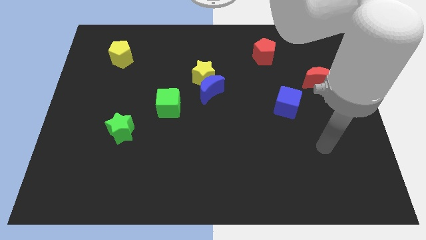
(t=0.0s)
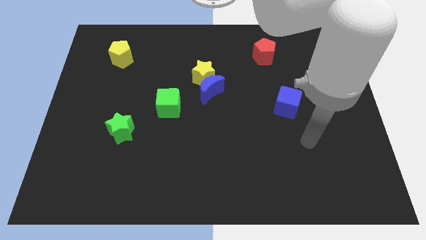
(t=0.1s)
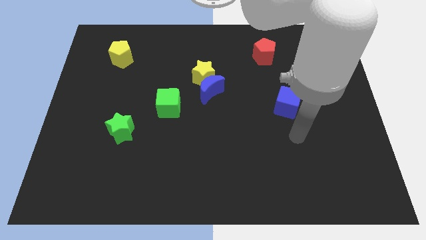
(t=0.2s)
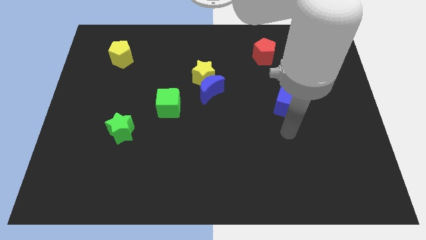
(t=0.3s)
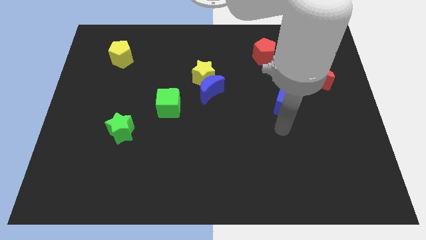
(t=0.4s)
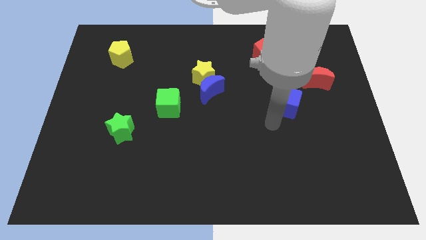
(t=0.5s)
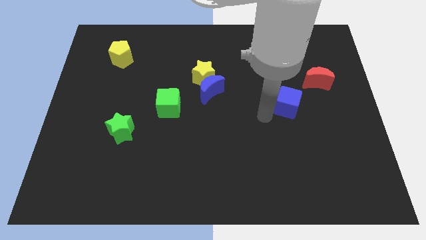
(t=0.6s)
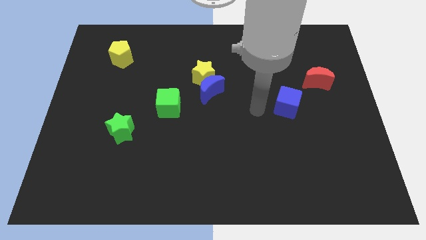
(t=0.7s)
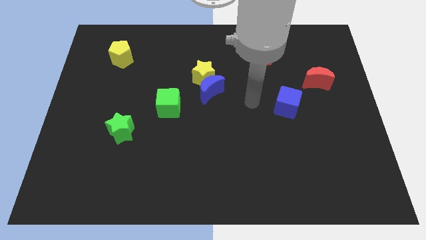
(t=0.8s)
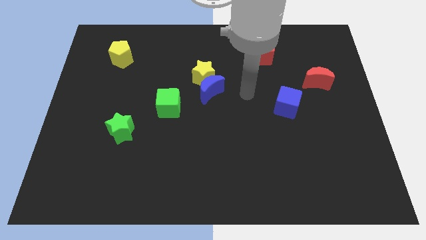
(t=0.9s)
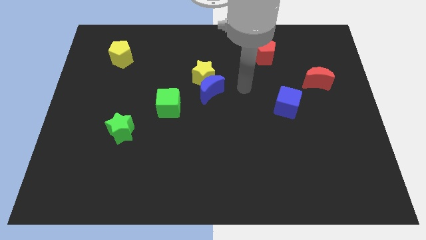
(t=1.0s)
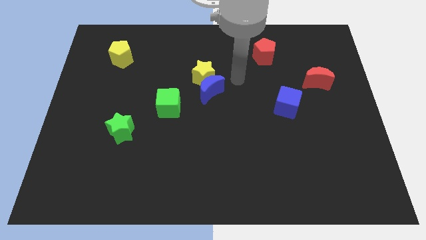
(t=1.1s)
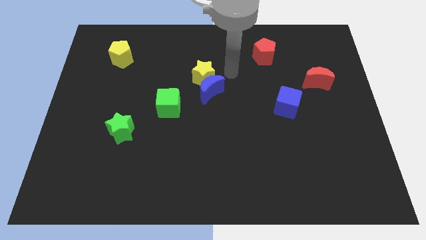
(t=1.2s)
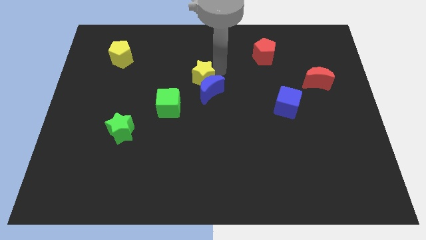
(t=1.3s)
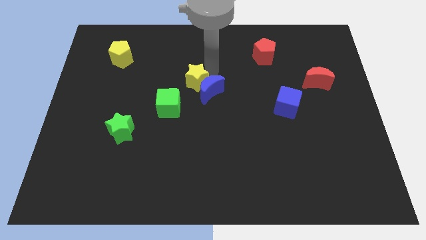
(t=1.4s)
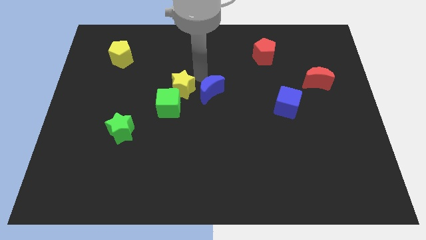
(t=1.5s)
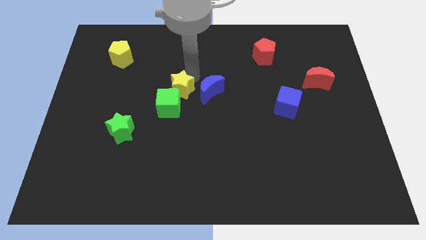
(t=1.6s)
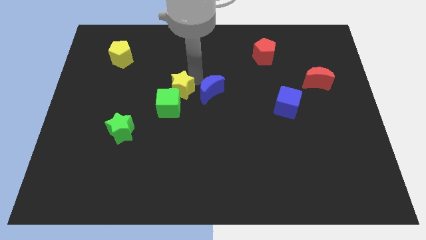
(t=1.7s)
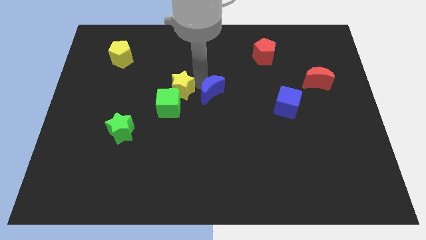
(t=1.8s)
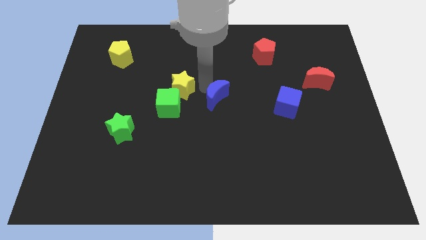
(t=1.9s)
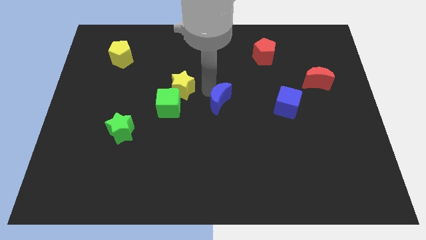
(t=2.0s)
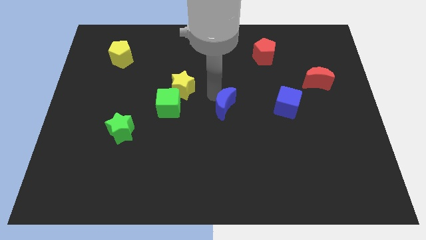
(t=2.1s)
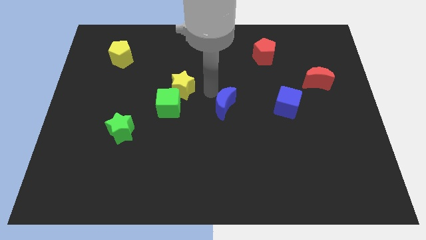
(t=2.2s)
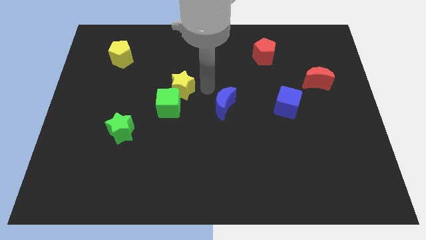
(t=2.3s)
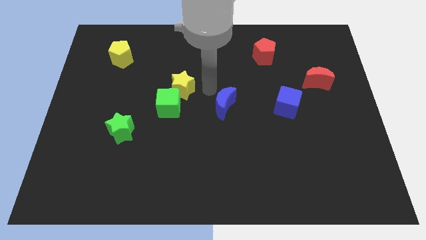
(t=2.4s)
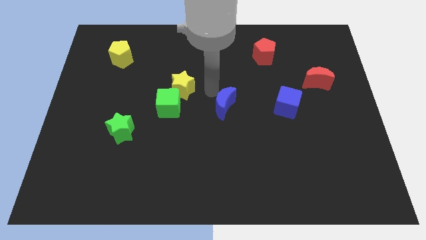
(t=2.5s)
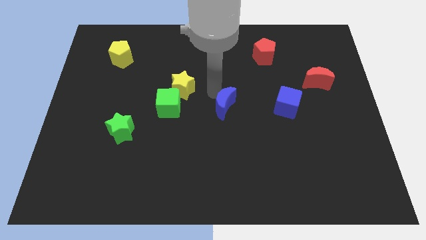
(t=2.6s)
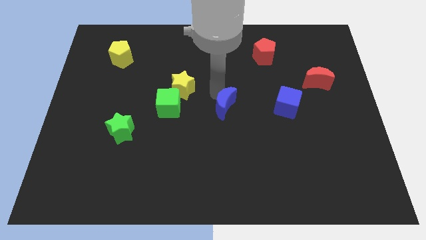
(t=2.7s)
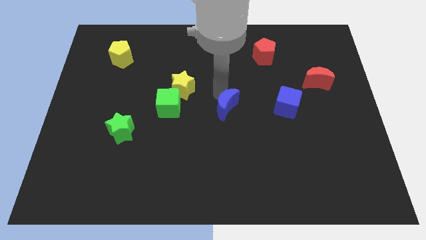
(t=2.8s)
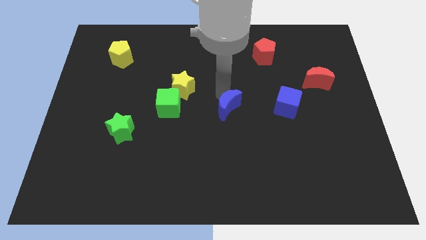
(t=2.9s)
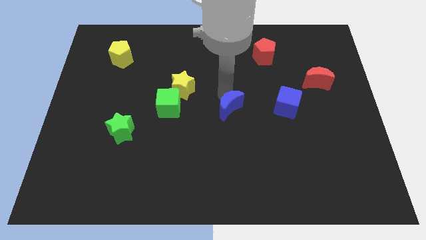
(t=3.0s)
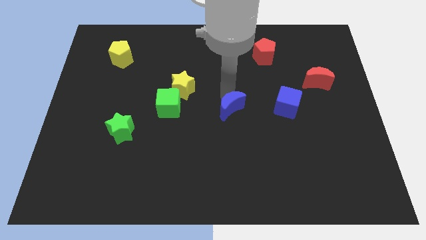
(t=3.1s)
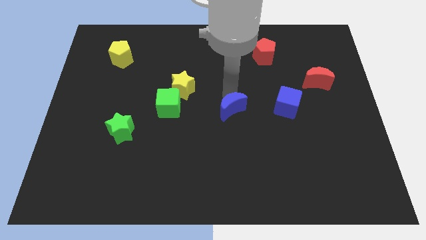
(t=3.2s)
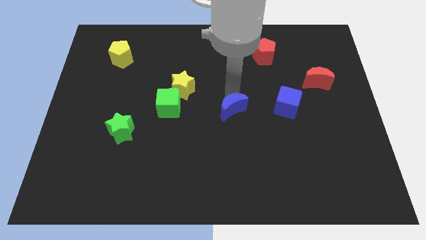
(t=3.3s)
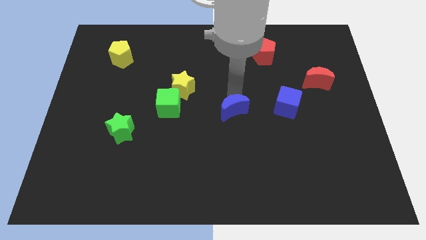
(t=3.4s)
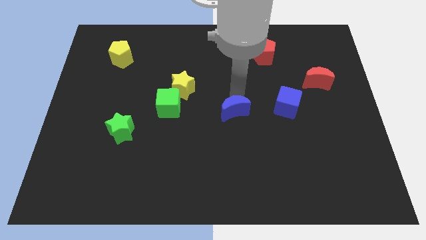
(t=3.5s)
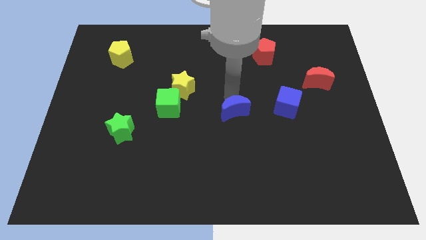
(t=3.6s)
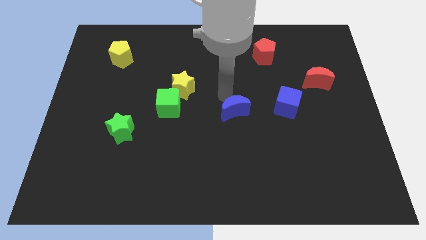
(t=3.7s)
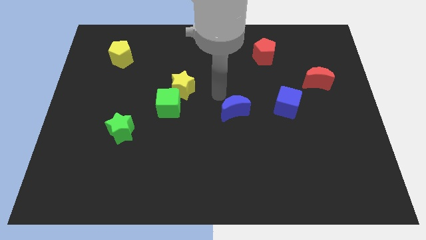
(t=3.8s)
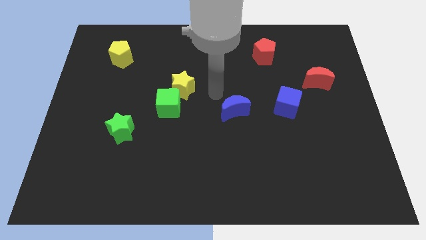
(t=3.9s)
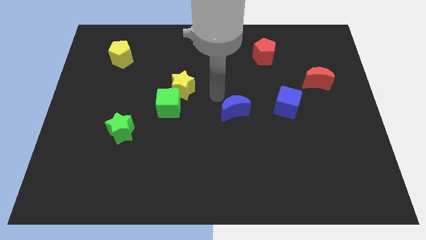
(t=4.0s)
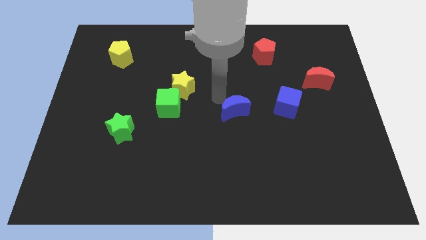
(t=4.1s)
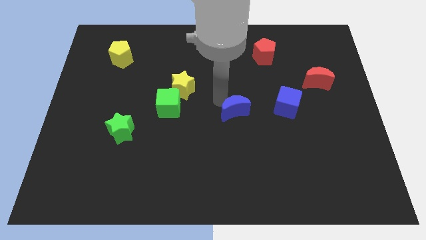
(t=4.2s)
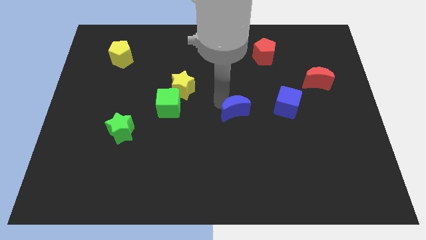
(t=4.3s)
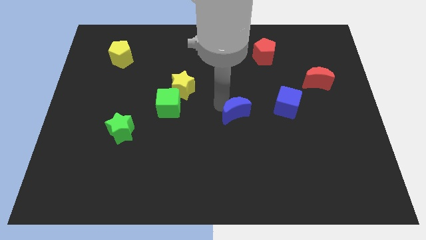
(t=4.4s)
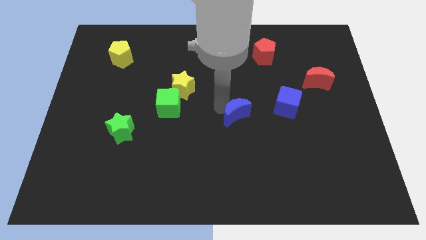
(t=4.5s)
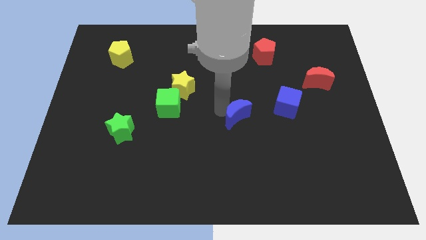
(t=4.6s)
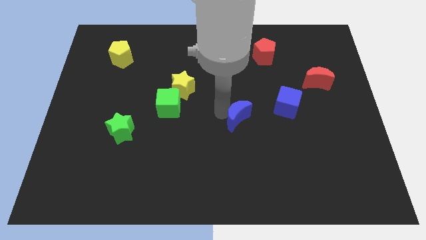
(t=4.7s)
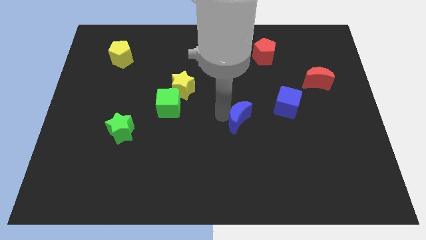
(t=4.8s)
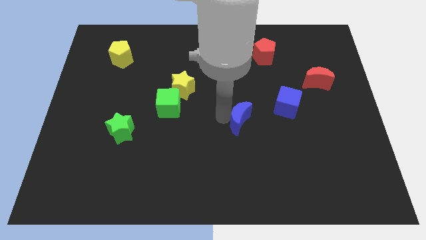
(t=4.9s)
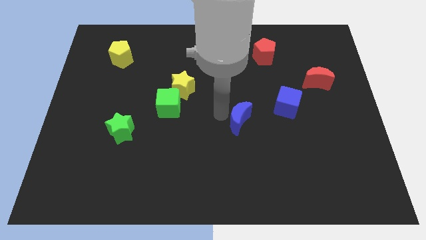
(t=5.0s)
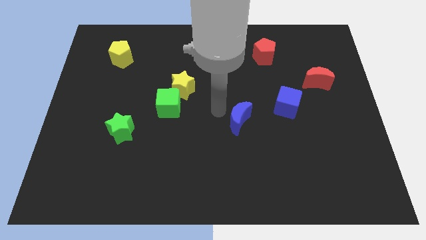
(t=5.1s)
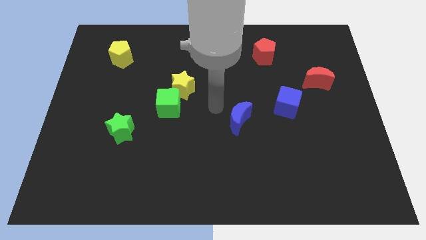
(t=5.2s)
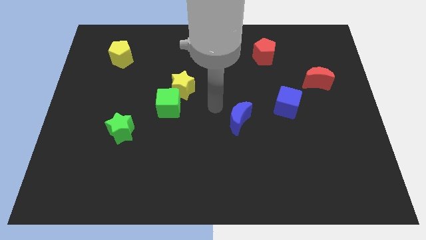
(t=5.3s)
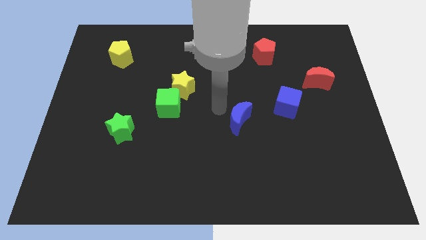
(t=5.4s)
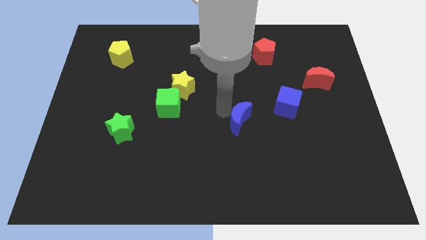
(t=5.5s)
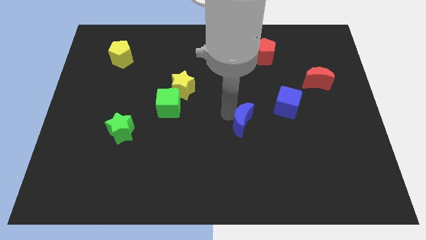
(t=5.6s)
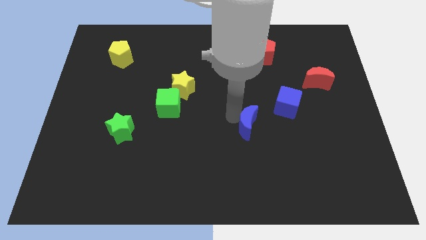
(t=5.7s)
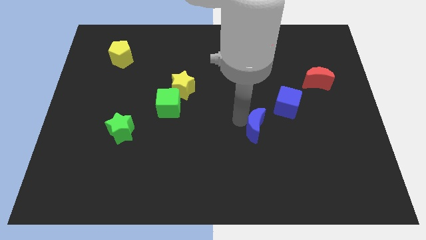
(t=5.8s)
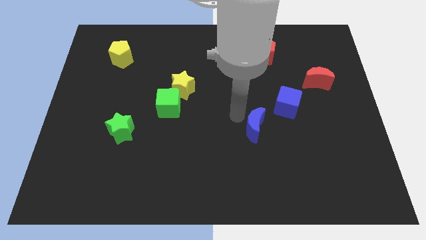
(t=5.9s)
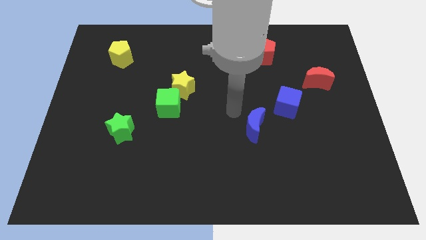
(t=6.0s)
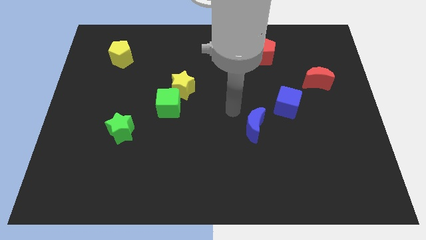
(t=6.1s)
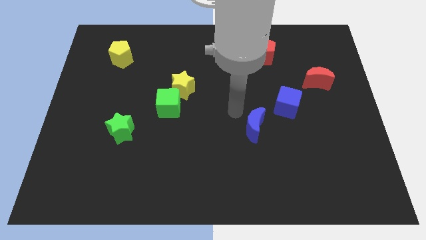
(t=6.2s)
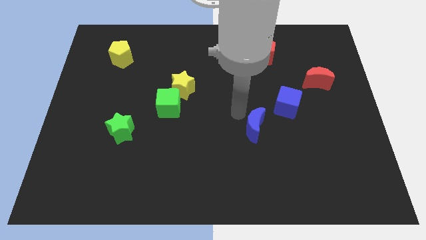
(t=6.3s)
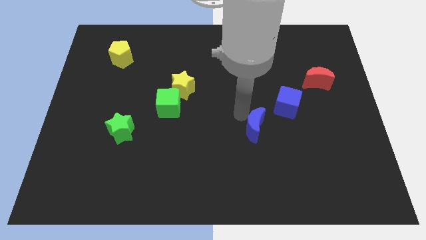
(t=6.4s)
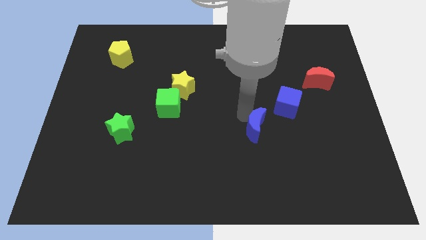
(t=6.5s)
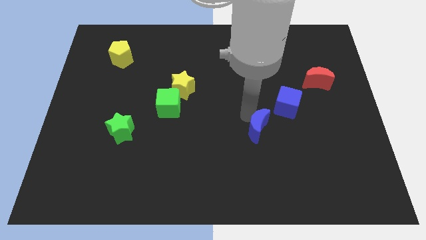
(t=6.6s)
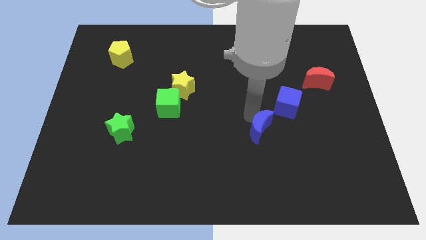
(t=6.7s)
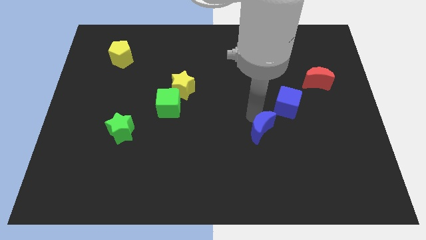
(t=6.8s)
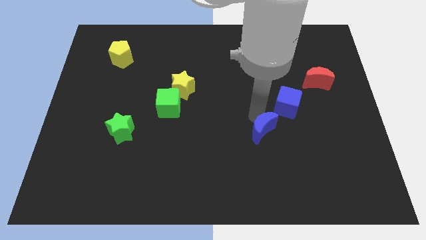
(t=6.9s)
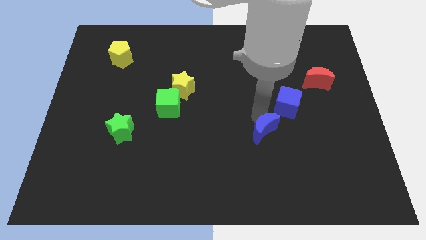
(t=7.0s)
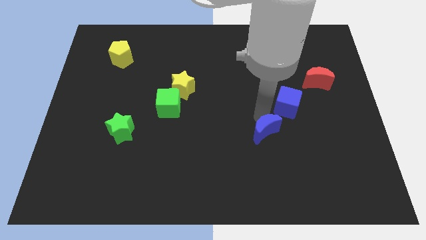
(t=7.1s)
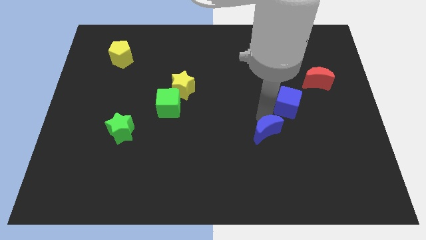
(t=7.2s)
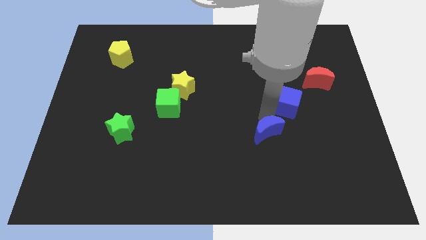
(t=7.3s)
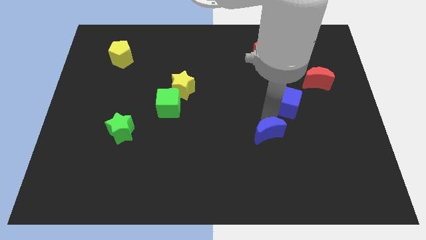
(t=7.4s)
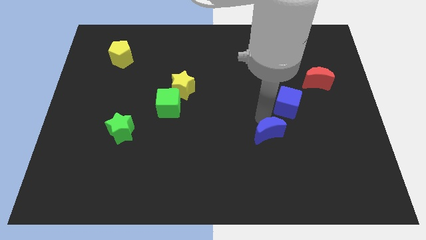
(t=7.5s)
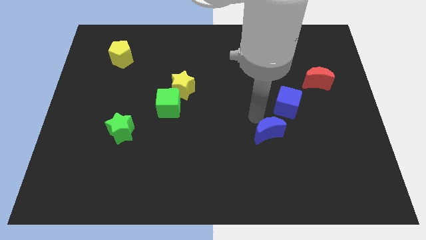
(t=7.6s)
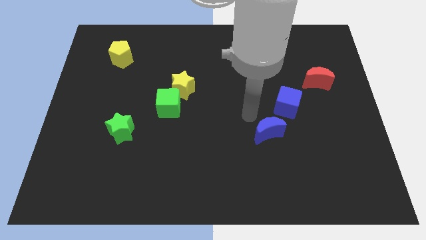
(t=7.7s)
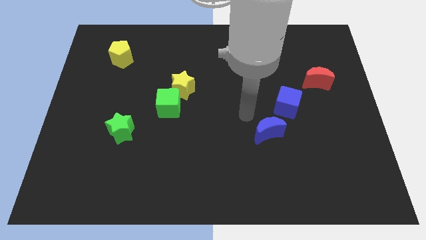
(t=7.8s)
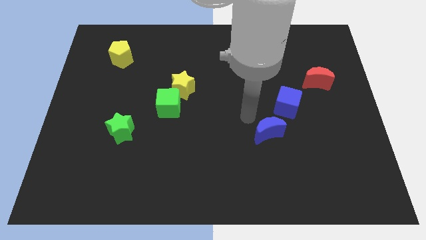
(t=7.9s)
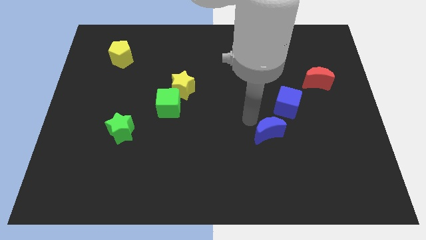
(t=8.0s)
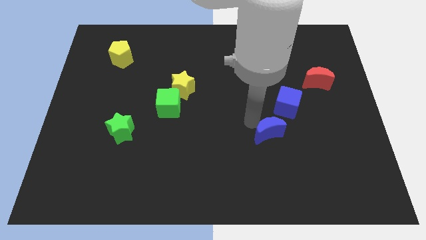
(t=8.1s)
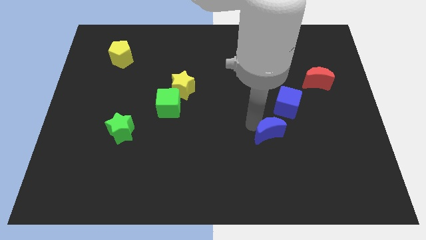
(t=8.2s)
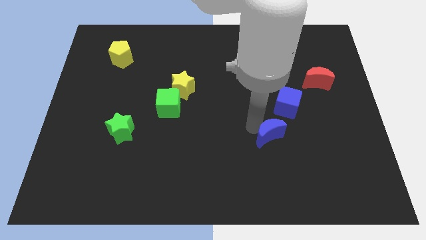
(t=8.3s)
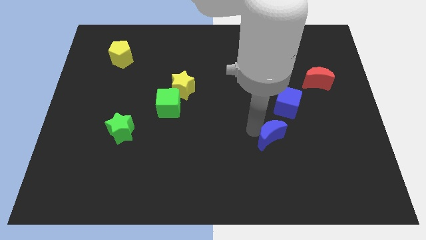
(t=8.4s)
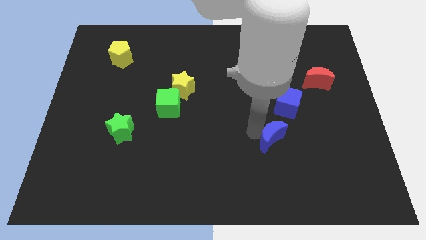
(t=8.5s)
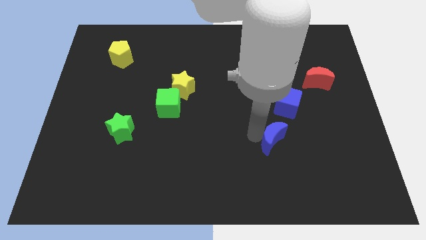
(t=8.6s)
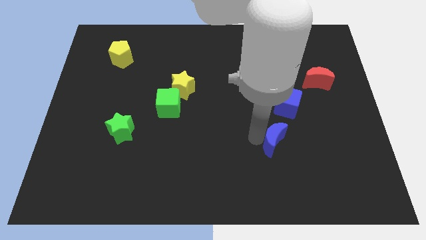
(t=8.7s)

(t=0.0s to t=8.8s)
slide the blue moon down and right
